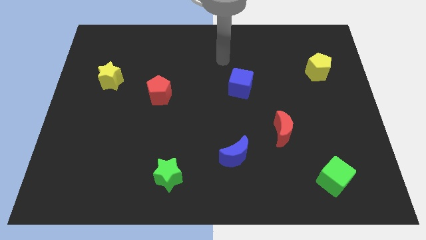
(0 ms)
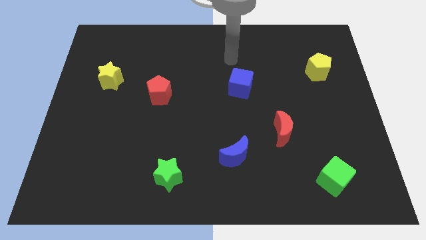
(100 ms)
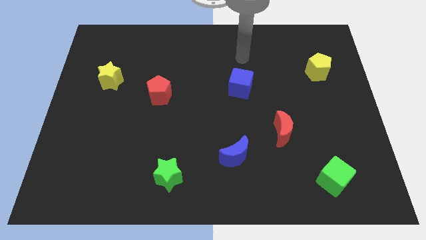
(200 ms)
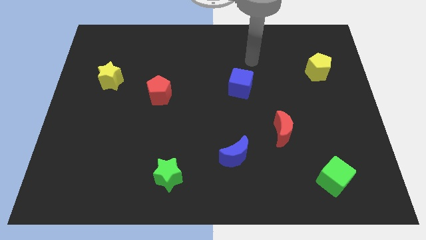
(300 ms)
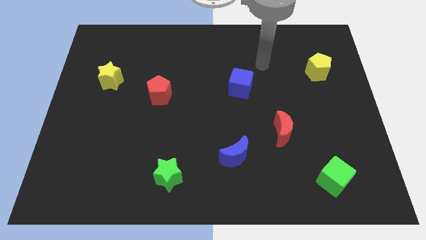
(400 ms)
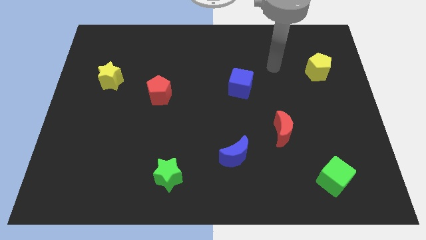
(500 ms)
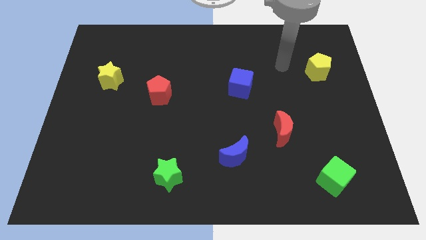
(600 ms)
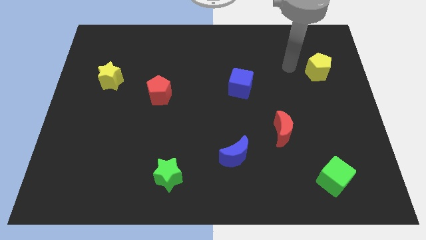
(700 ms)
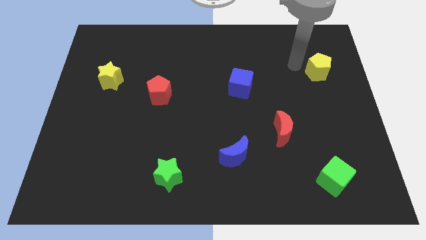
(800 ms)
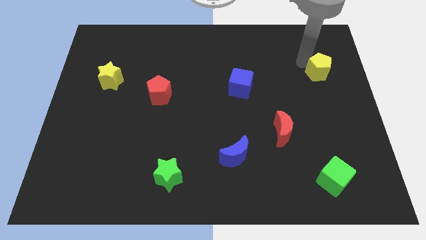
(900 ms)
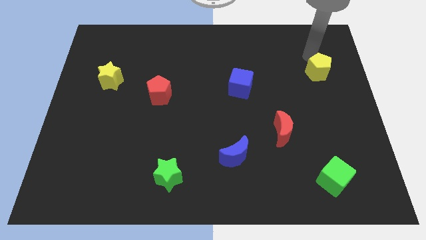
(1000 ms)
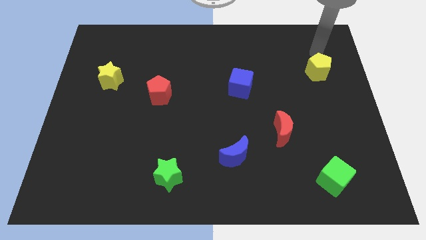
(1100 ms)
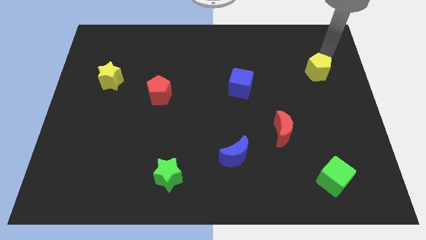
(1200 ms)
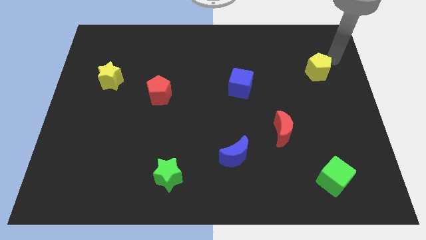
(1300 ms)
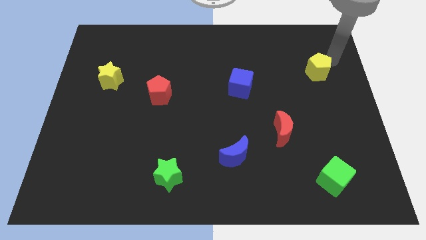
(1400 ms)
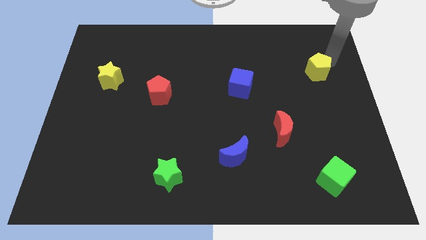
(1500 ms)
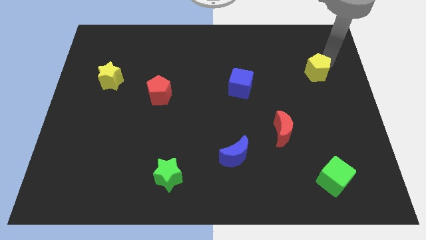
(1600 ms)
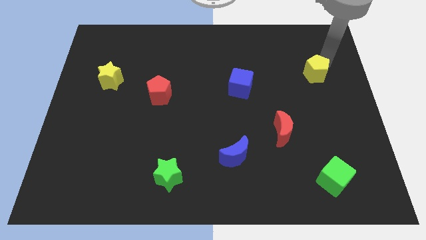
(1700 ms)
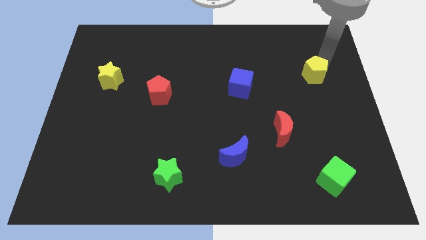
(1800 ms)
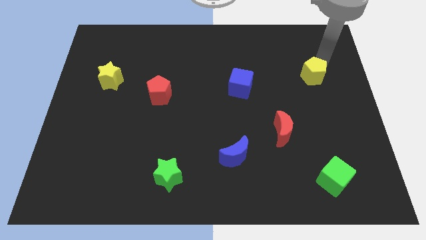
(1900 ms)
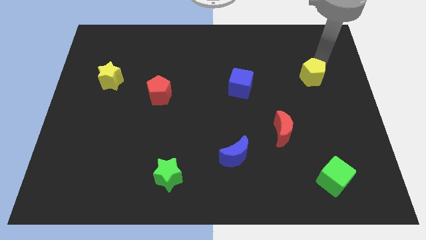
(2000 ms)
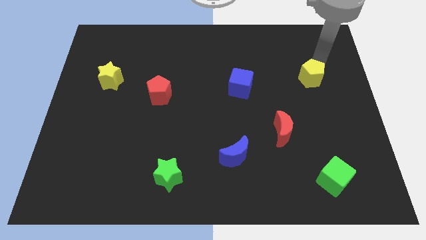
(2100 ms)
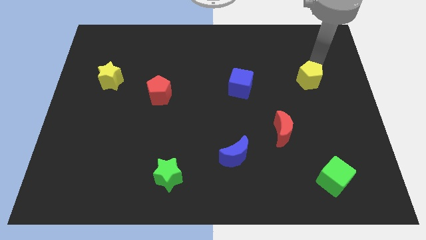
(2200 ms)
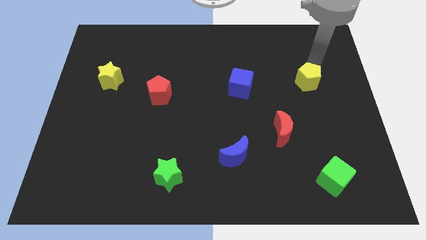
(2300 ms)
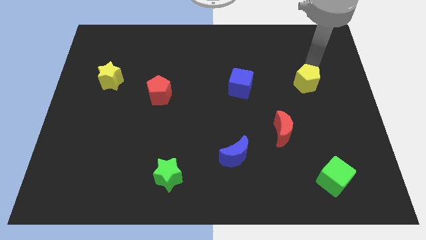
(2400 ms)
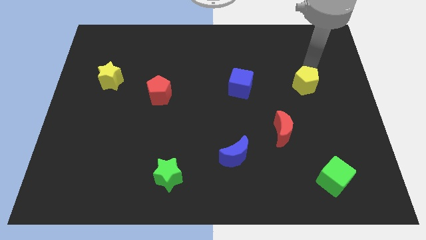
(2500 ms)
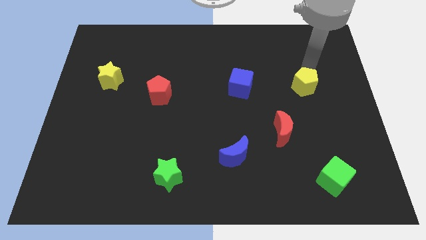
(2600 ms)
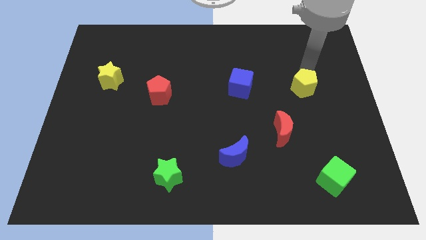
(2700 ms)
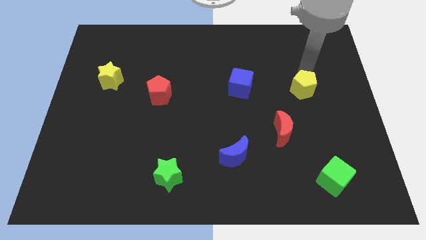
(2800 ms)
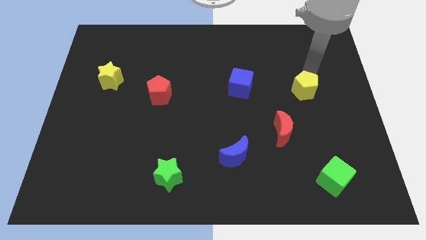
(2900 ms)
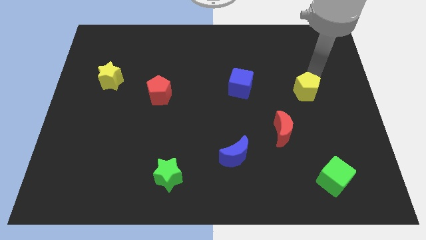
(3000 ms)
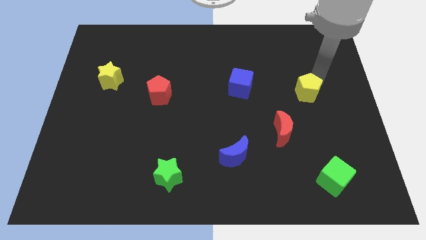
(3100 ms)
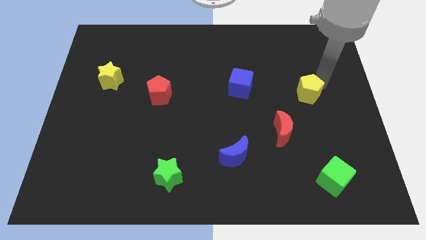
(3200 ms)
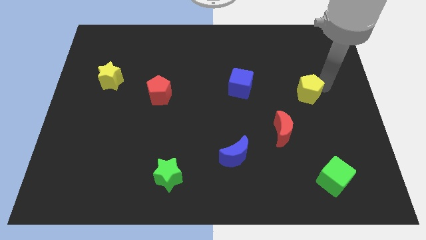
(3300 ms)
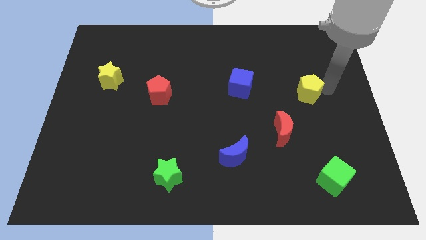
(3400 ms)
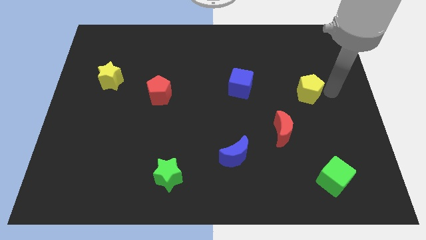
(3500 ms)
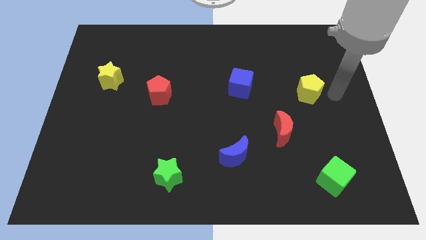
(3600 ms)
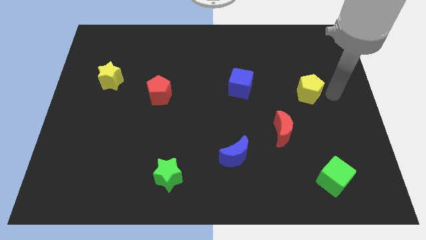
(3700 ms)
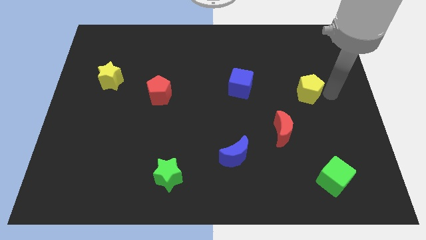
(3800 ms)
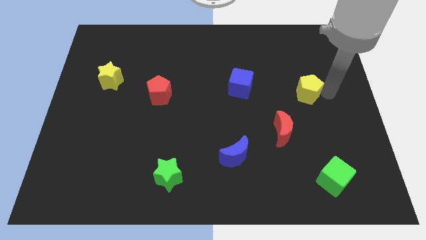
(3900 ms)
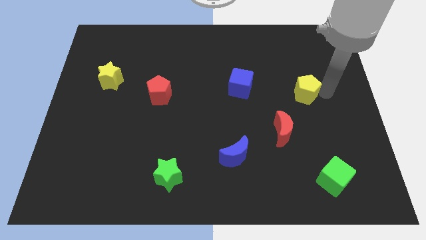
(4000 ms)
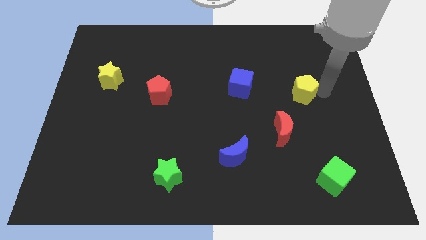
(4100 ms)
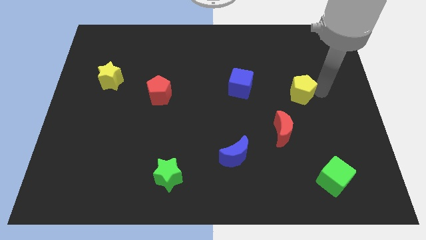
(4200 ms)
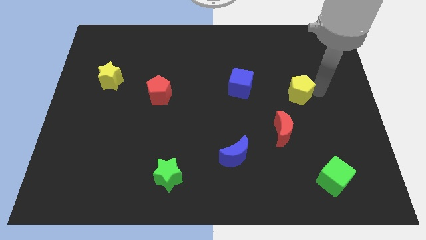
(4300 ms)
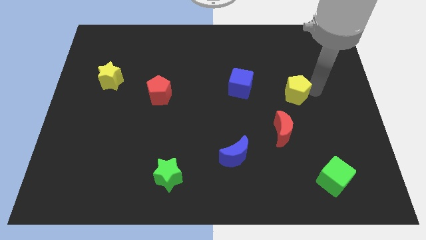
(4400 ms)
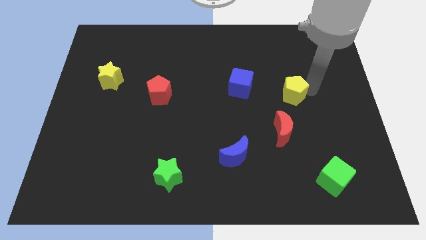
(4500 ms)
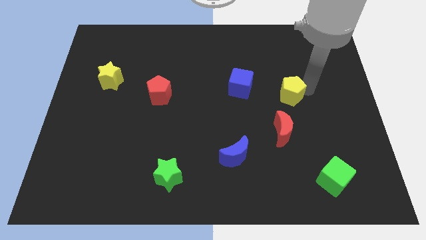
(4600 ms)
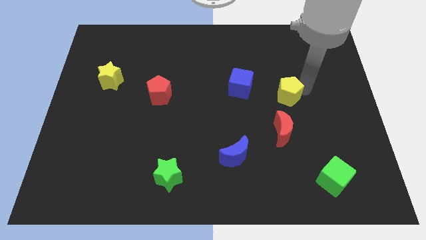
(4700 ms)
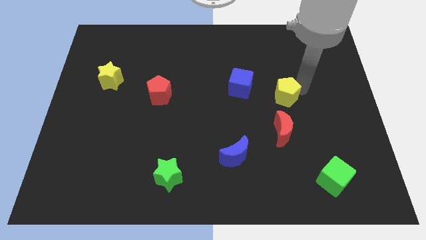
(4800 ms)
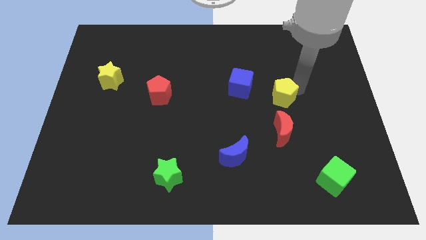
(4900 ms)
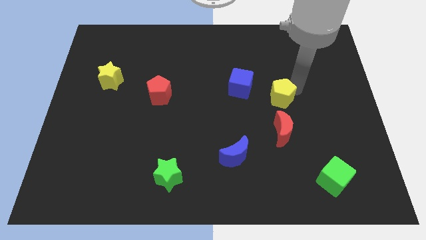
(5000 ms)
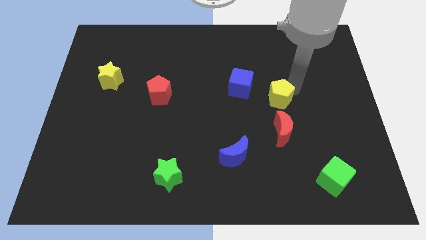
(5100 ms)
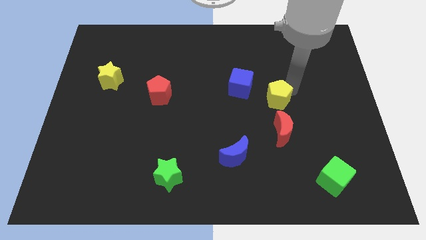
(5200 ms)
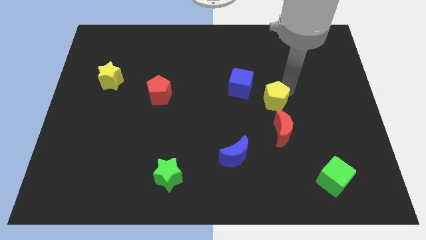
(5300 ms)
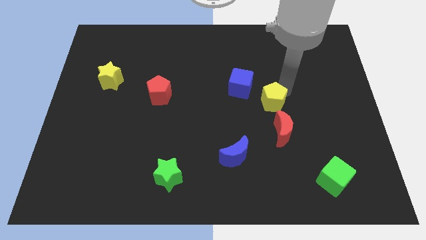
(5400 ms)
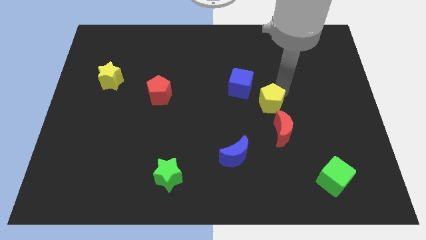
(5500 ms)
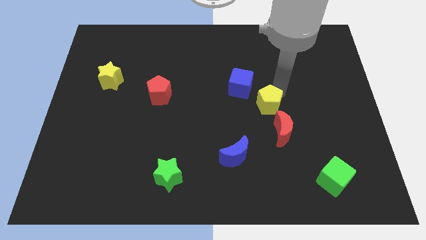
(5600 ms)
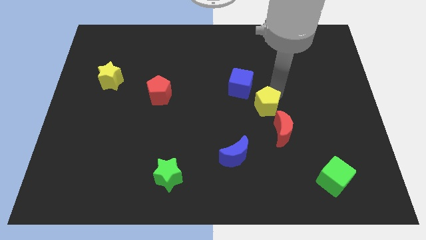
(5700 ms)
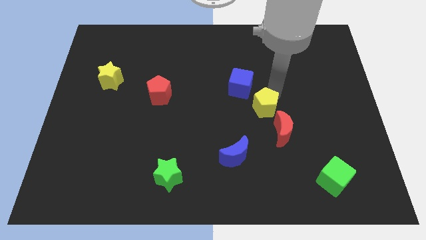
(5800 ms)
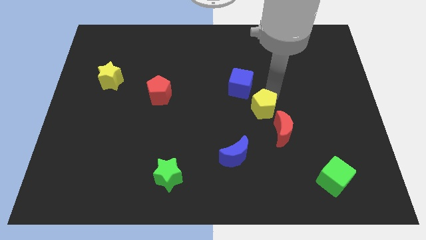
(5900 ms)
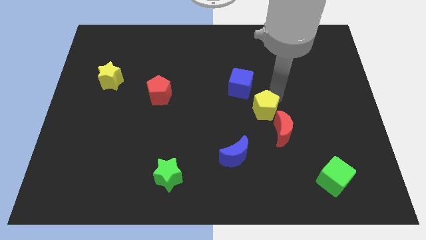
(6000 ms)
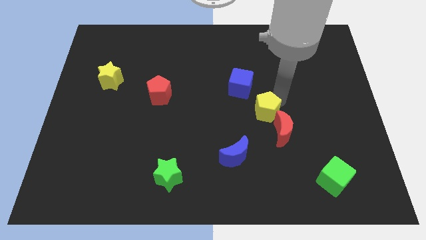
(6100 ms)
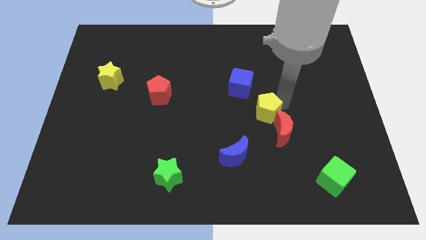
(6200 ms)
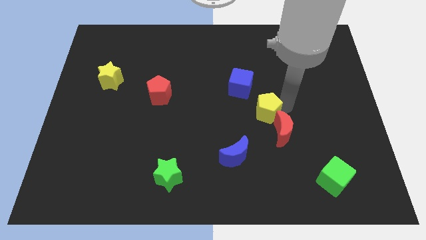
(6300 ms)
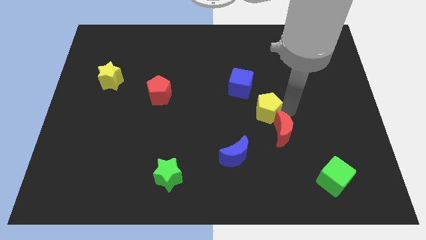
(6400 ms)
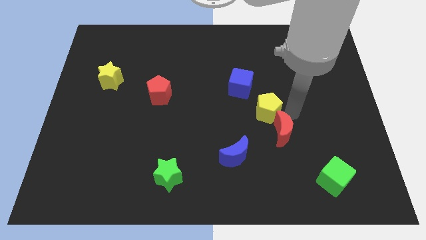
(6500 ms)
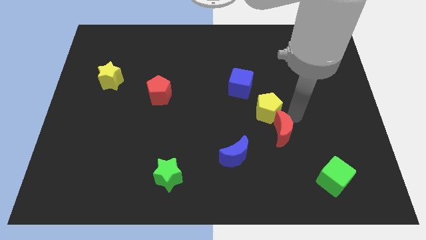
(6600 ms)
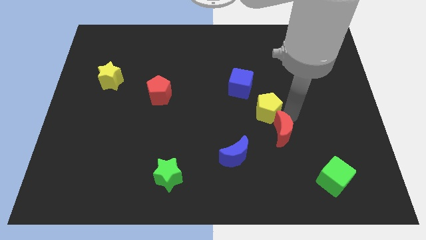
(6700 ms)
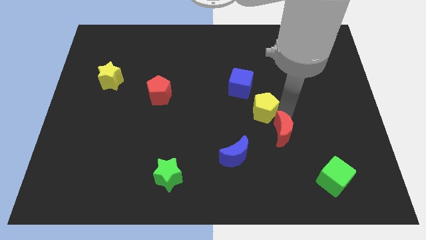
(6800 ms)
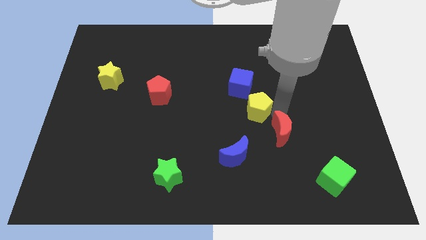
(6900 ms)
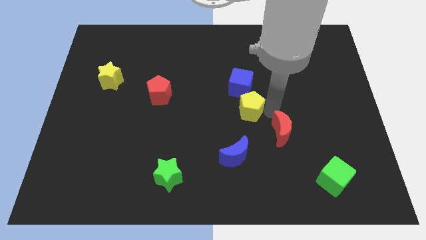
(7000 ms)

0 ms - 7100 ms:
push the yellow pentagon above the blue moon
